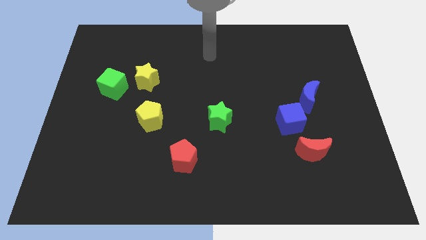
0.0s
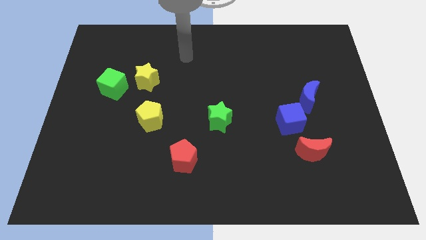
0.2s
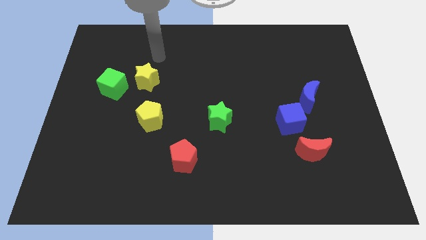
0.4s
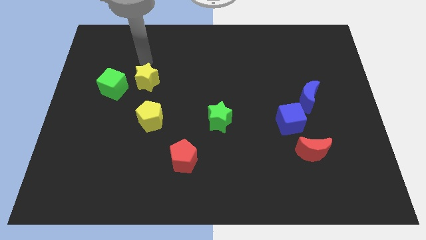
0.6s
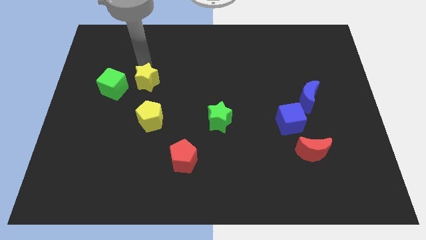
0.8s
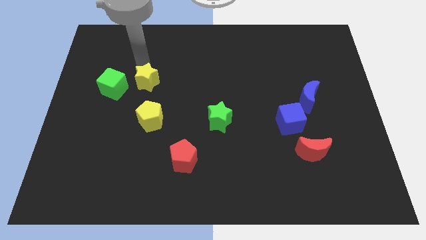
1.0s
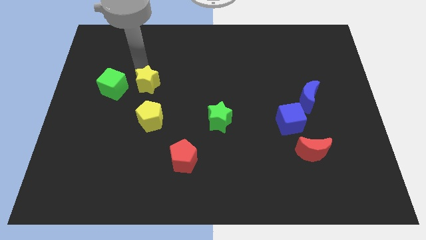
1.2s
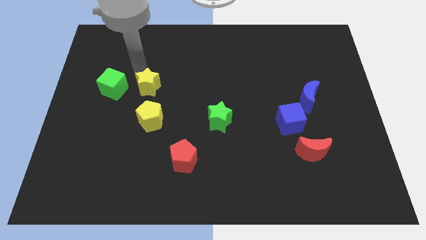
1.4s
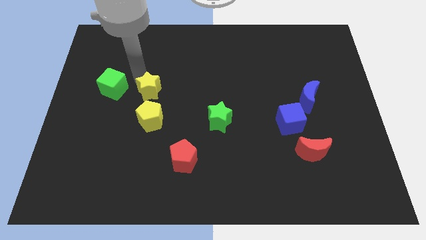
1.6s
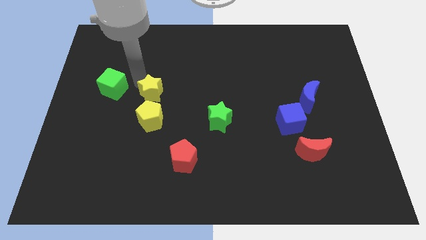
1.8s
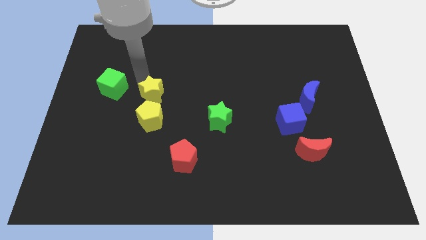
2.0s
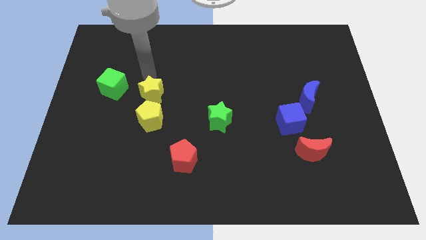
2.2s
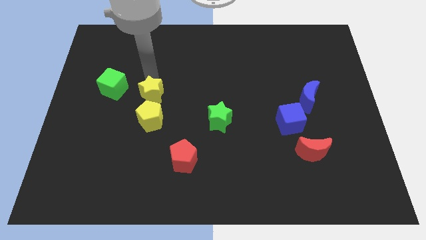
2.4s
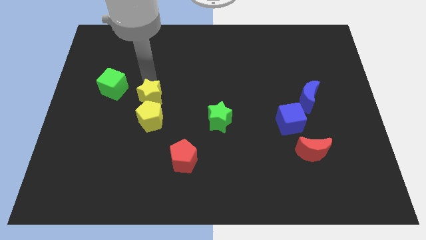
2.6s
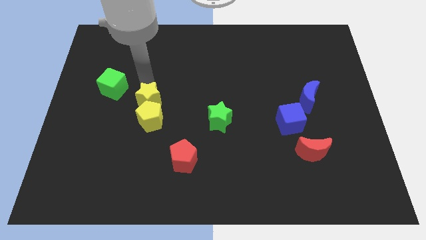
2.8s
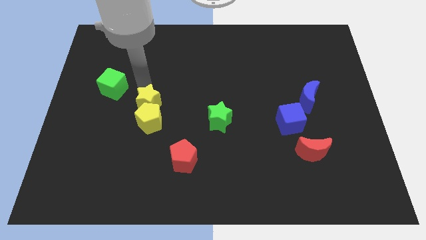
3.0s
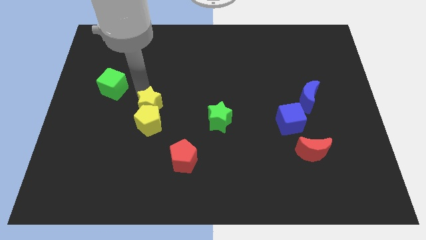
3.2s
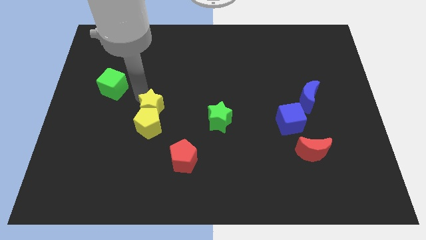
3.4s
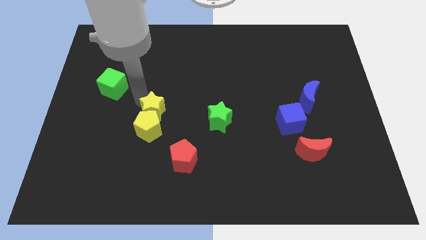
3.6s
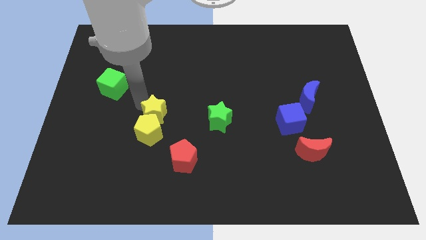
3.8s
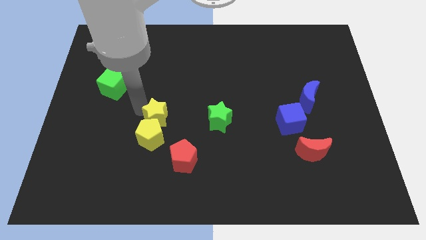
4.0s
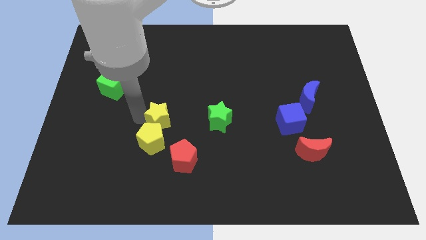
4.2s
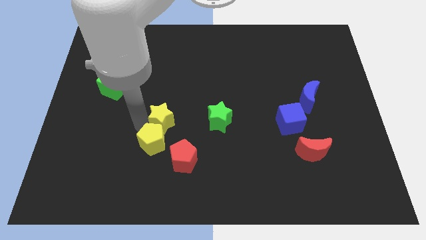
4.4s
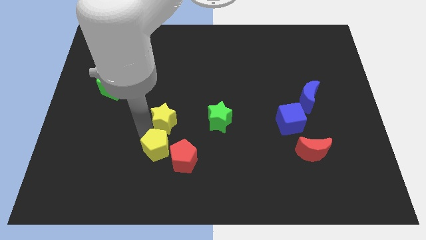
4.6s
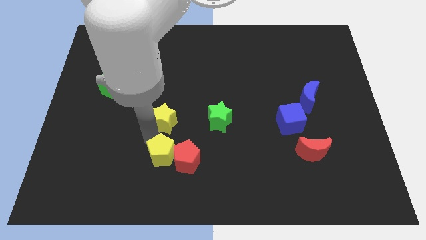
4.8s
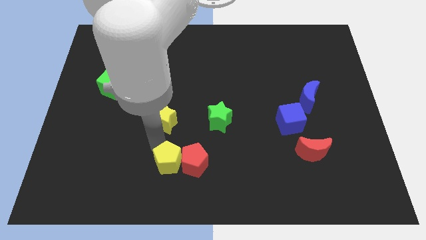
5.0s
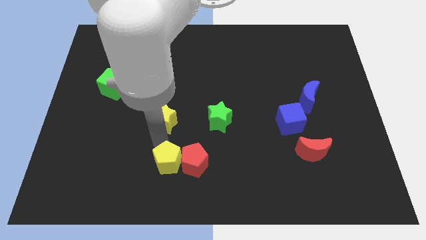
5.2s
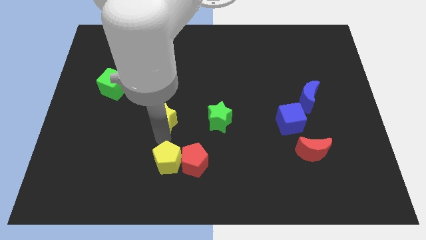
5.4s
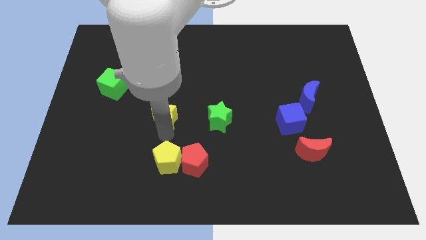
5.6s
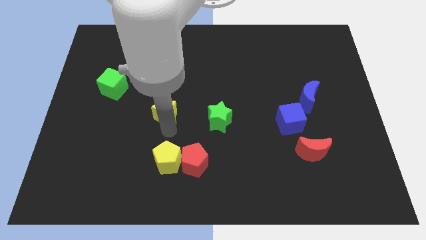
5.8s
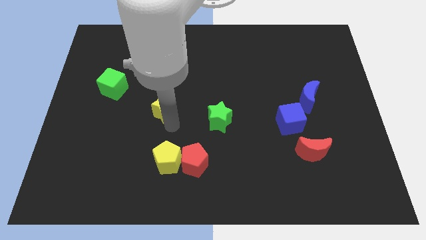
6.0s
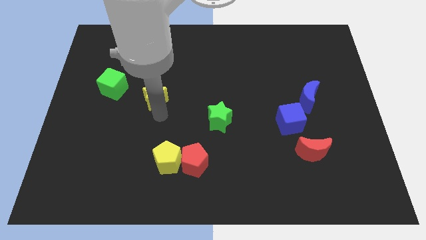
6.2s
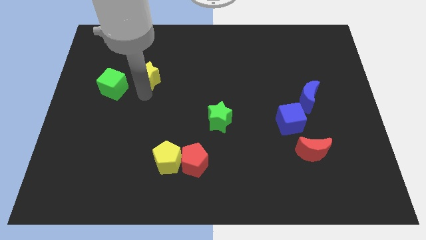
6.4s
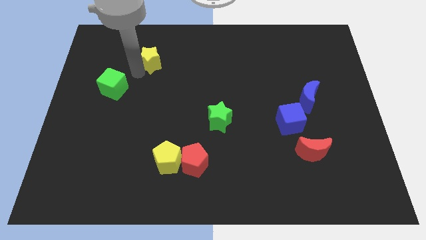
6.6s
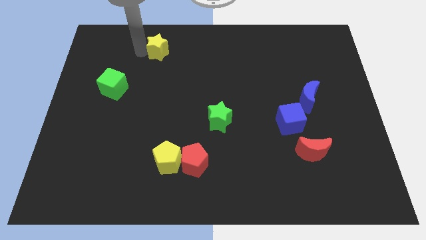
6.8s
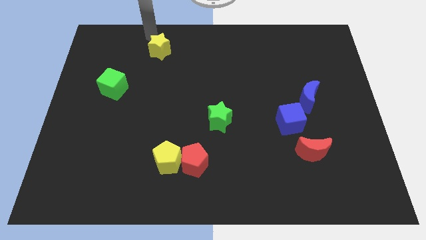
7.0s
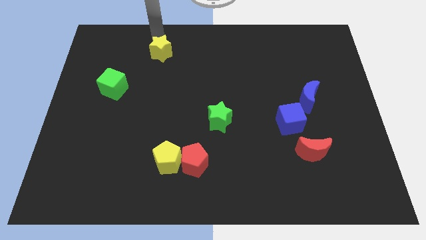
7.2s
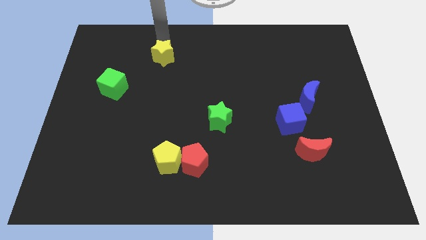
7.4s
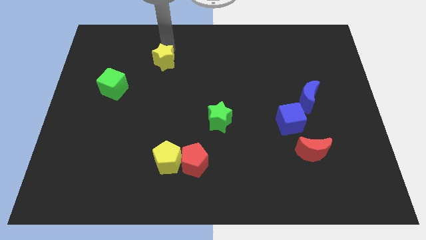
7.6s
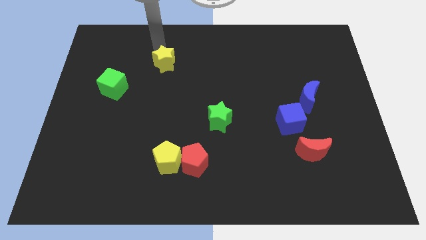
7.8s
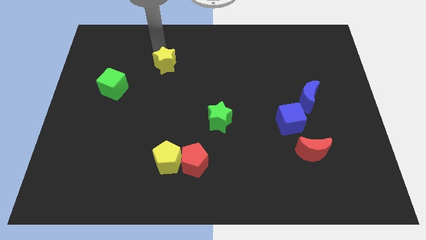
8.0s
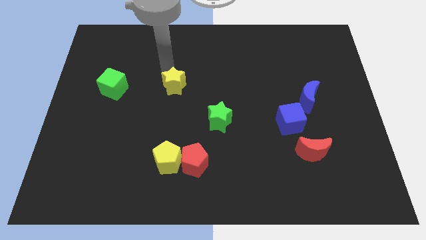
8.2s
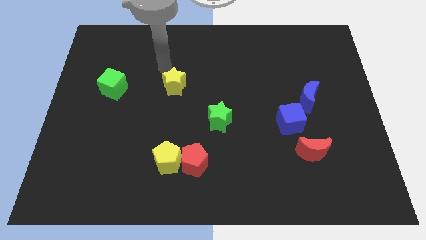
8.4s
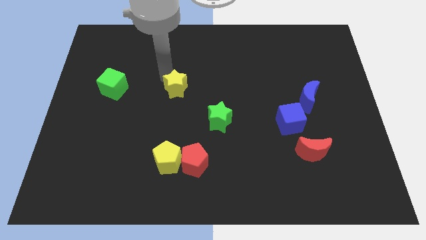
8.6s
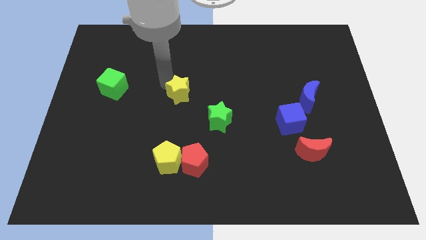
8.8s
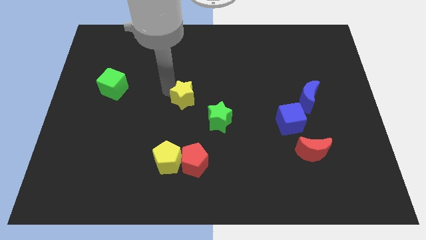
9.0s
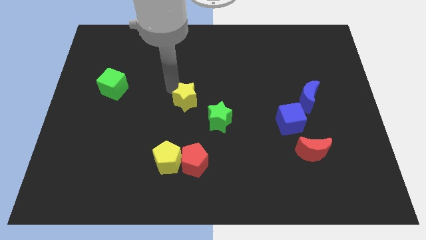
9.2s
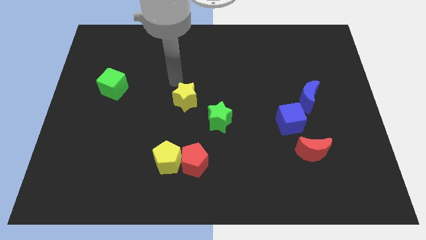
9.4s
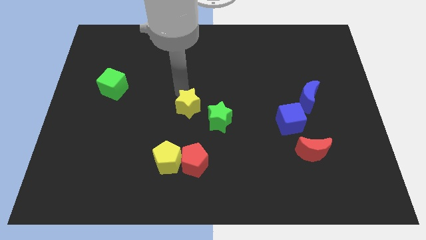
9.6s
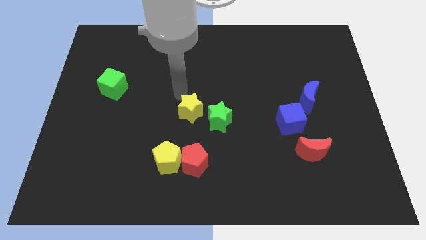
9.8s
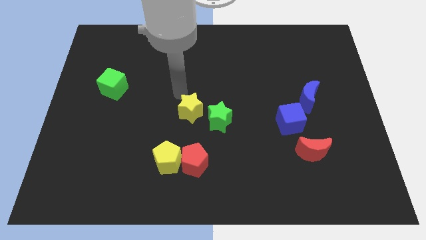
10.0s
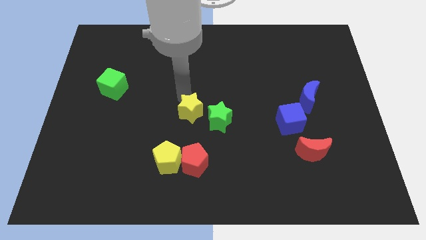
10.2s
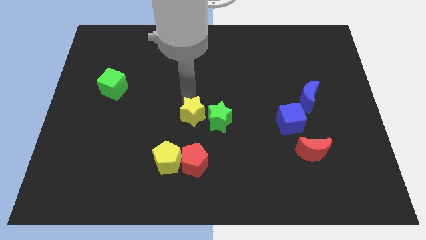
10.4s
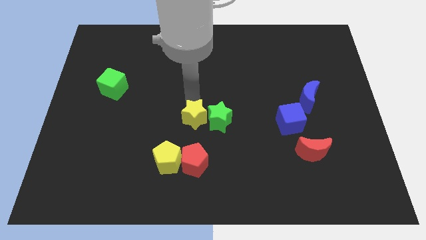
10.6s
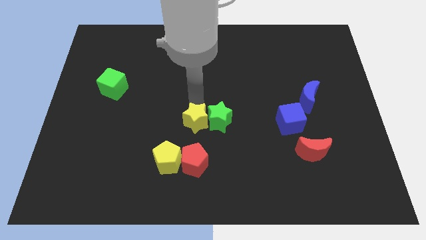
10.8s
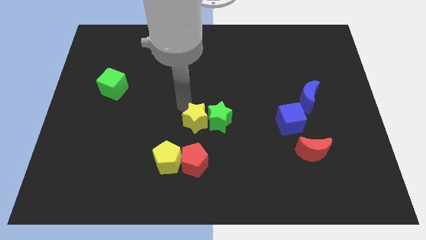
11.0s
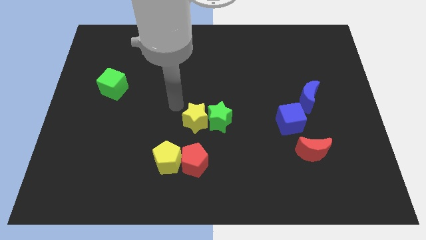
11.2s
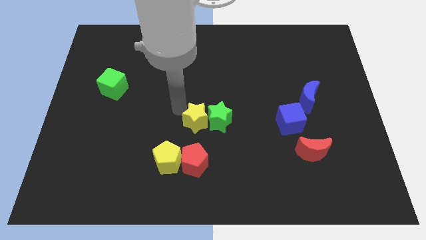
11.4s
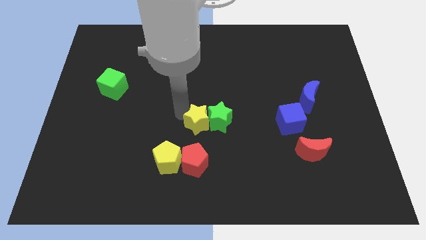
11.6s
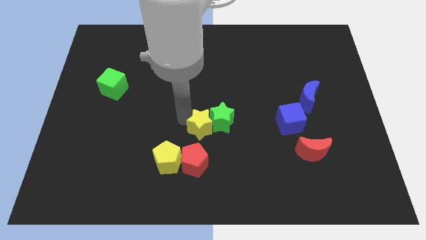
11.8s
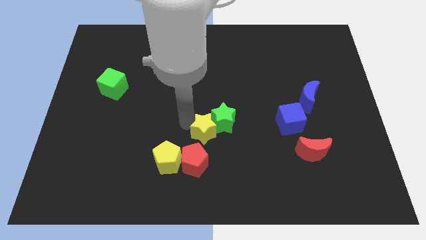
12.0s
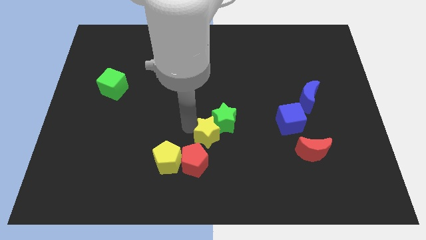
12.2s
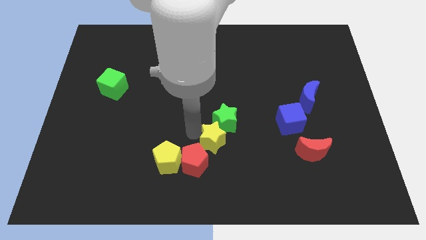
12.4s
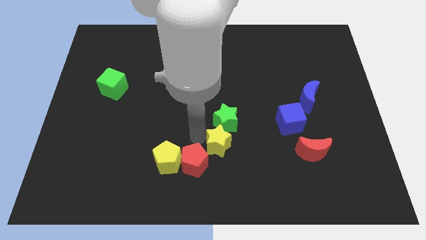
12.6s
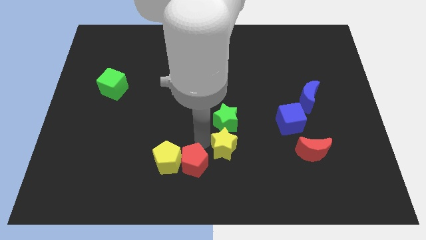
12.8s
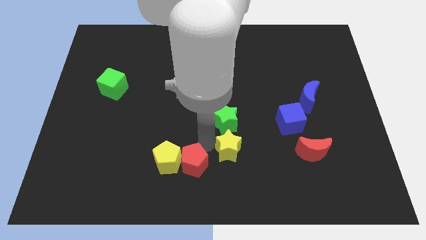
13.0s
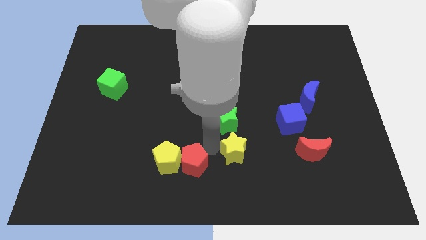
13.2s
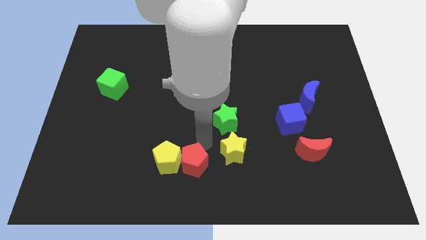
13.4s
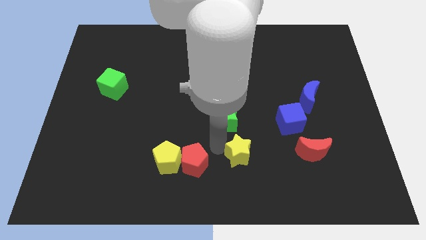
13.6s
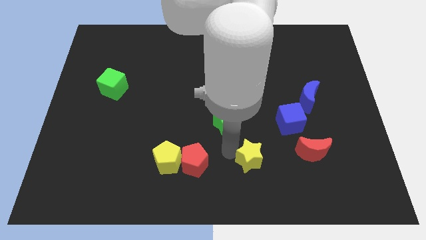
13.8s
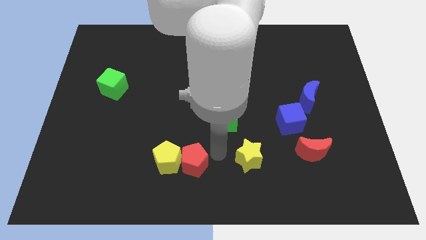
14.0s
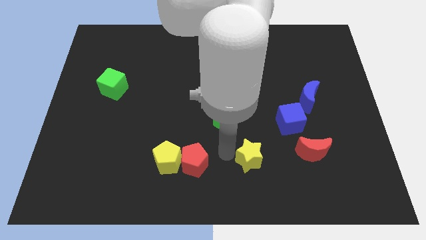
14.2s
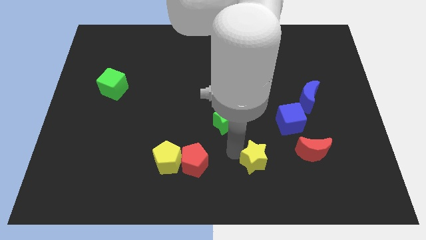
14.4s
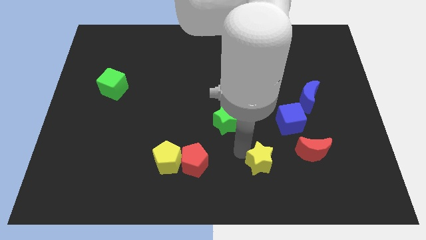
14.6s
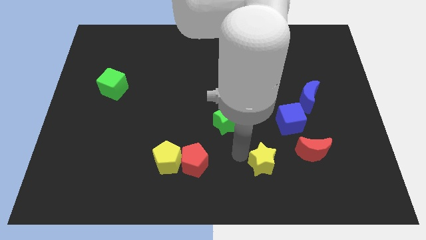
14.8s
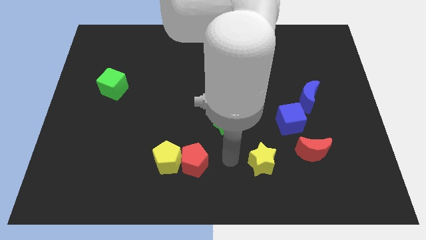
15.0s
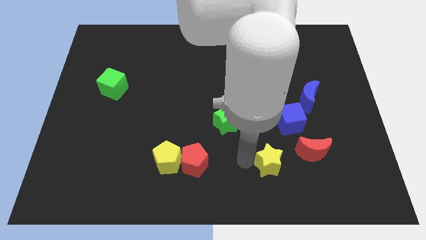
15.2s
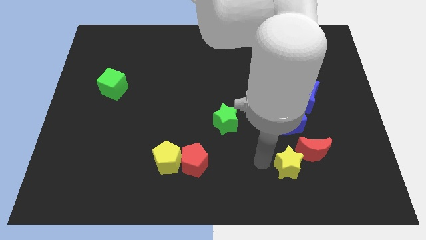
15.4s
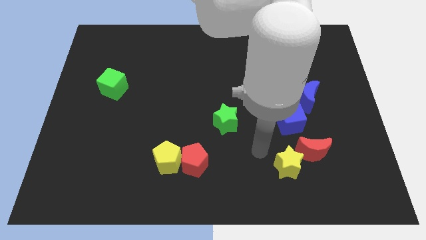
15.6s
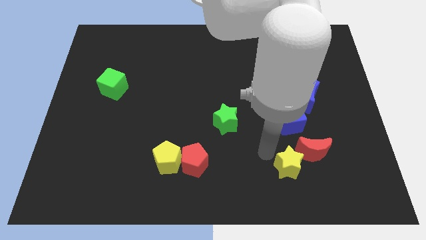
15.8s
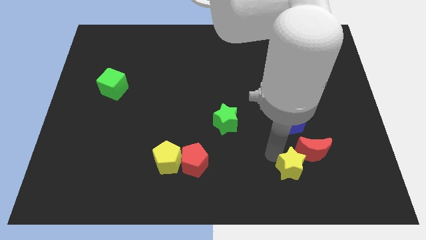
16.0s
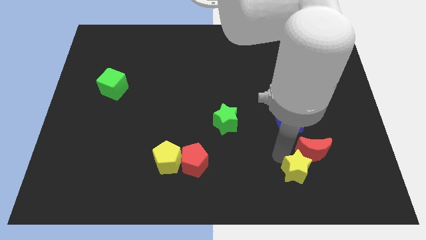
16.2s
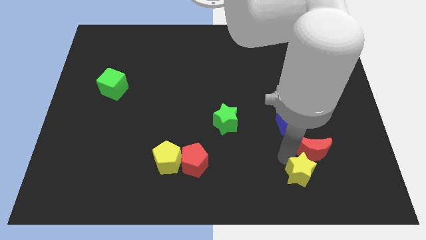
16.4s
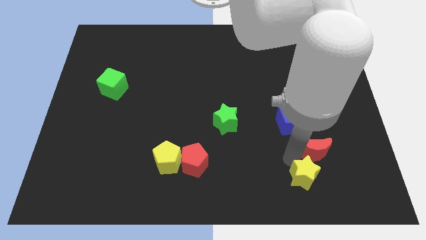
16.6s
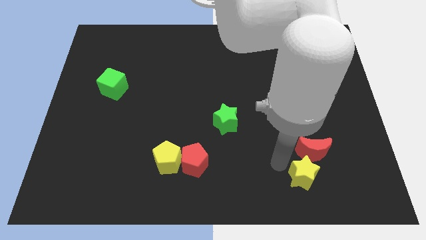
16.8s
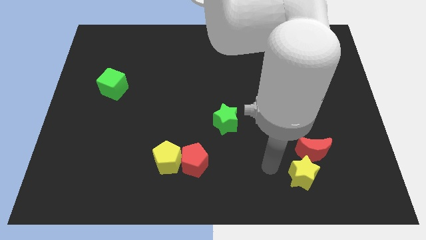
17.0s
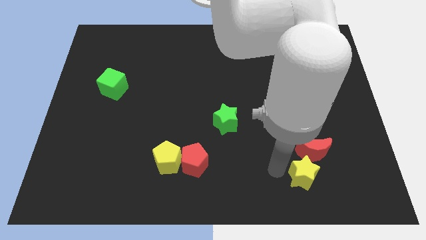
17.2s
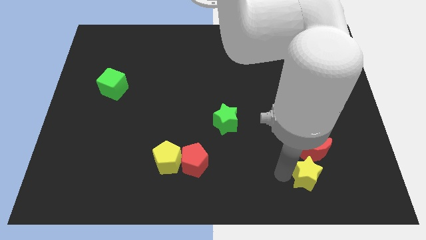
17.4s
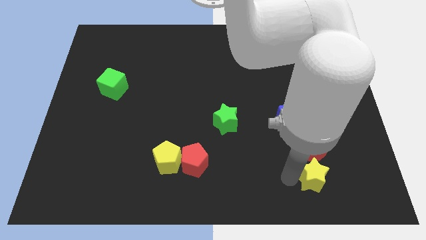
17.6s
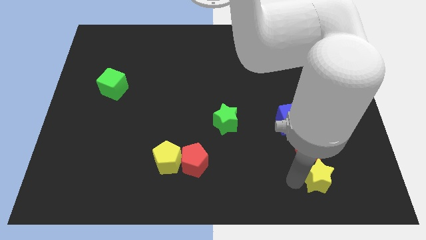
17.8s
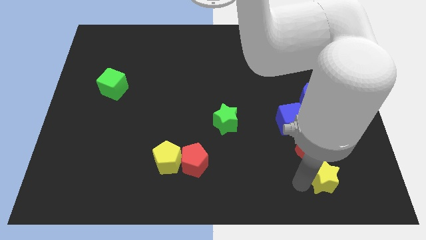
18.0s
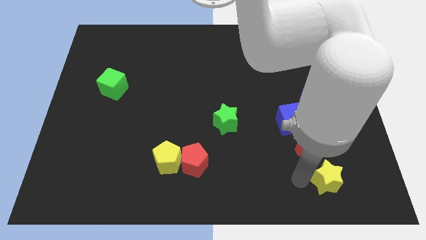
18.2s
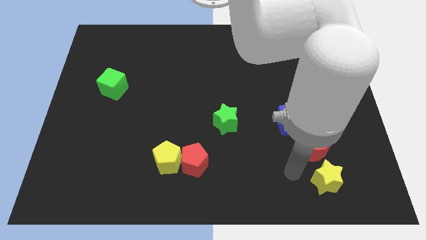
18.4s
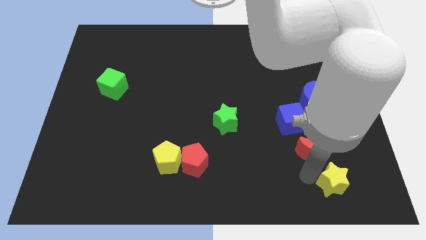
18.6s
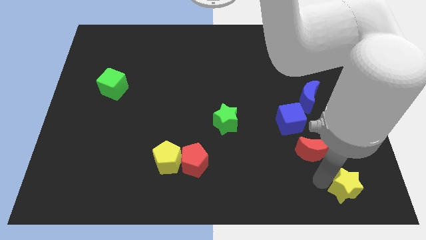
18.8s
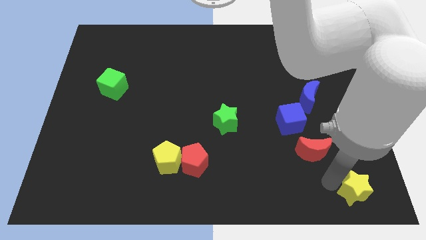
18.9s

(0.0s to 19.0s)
slide the yellow star to the bottom right of the board
